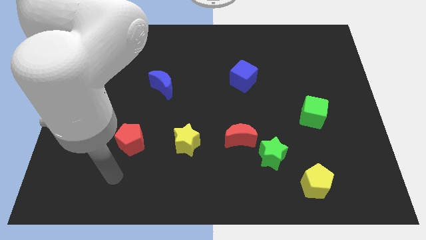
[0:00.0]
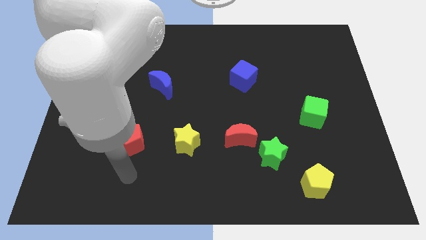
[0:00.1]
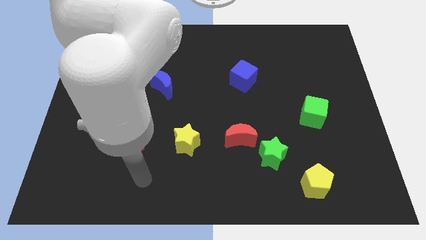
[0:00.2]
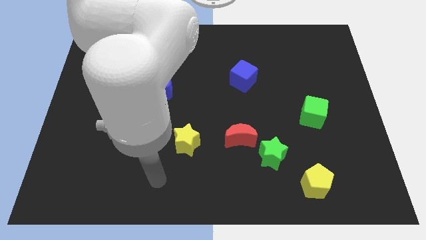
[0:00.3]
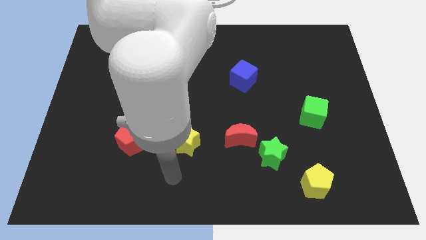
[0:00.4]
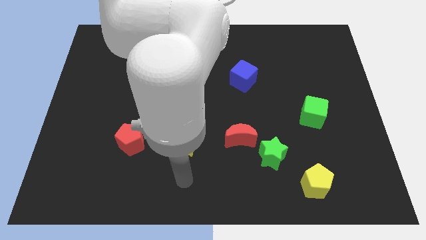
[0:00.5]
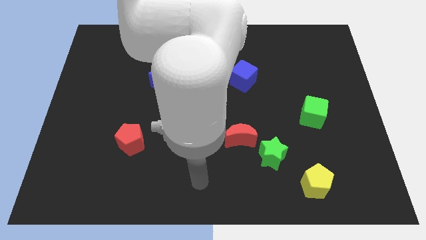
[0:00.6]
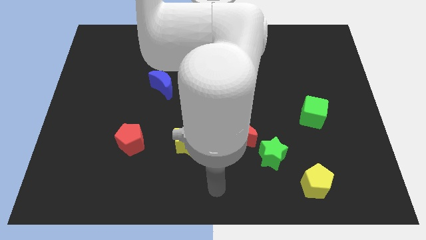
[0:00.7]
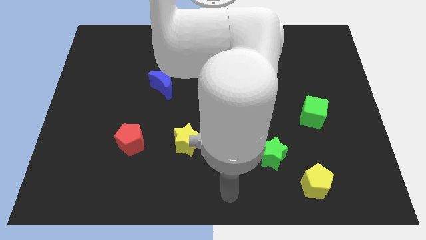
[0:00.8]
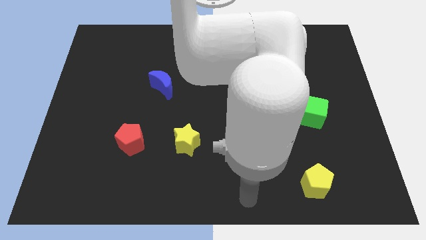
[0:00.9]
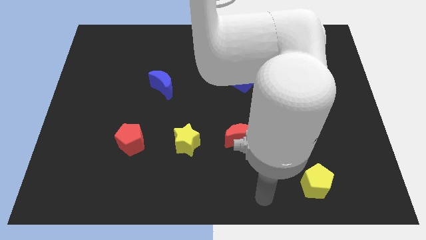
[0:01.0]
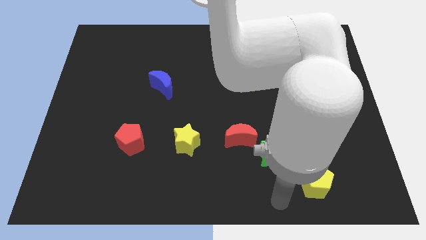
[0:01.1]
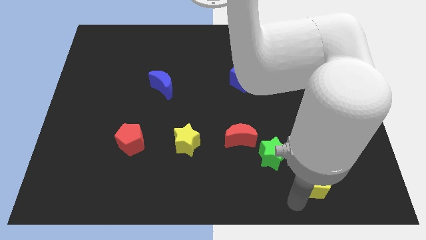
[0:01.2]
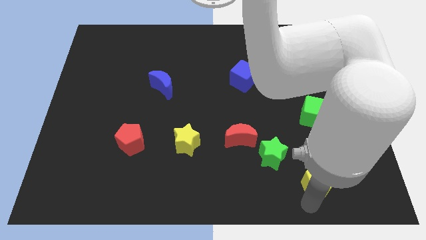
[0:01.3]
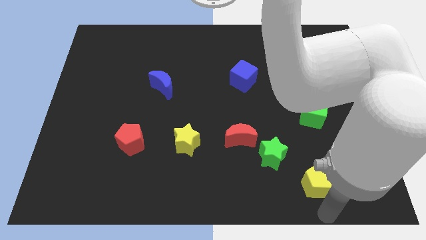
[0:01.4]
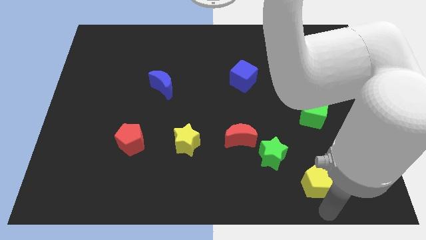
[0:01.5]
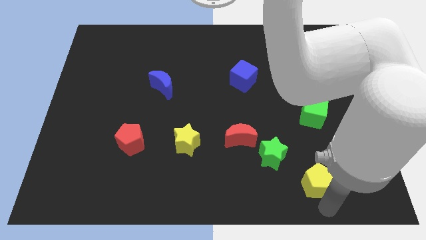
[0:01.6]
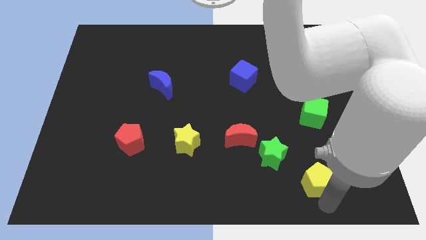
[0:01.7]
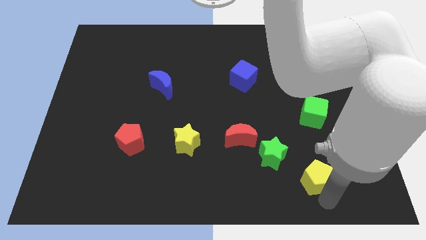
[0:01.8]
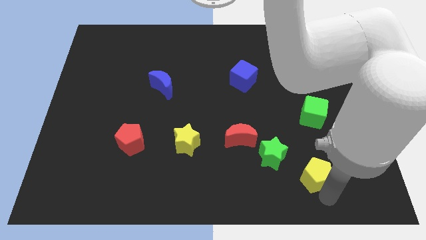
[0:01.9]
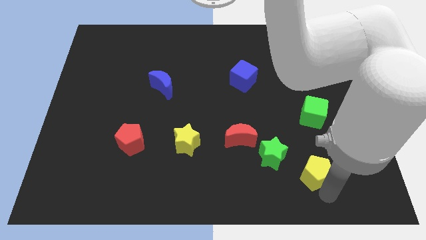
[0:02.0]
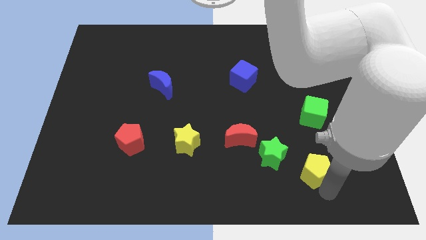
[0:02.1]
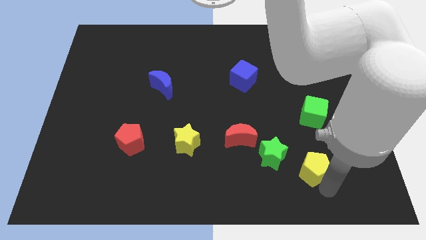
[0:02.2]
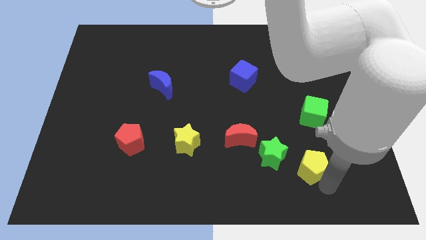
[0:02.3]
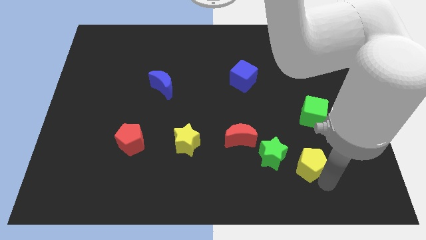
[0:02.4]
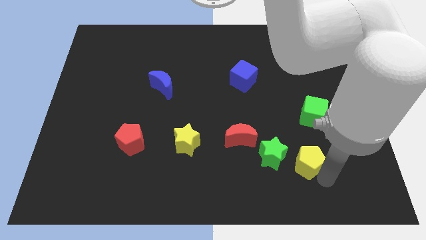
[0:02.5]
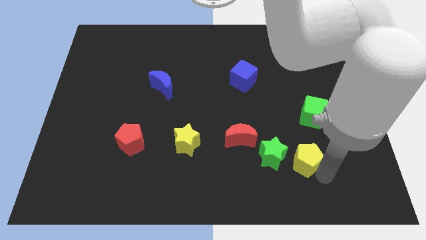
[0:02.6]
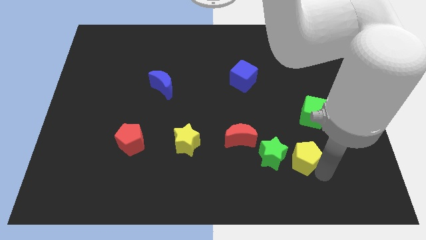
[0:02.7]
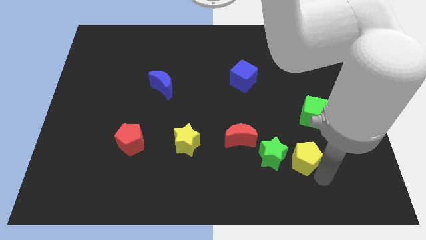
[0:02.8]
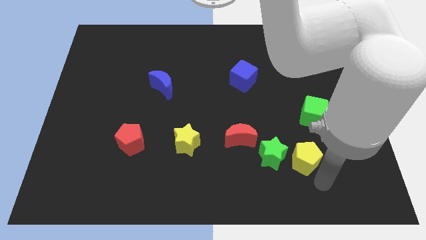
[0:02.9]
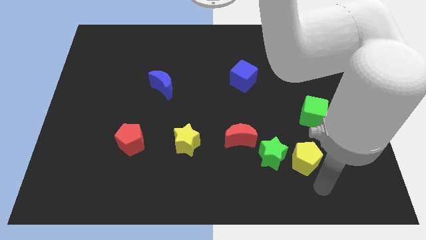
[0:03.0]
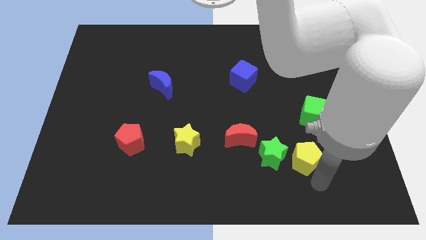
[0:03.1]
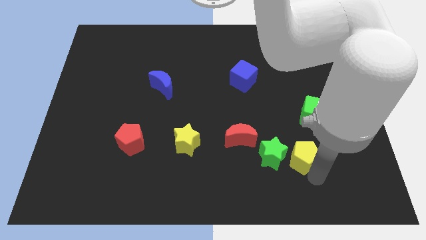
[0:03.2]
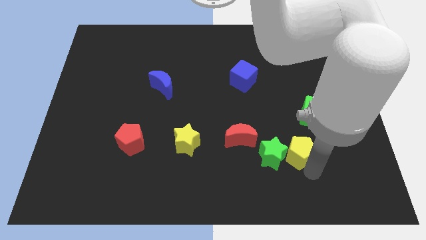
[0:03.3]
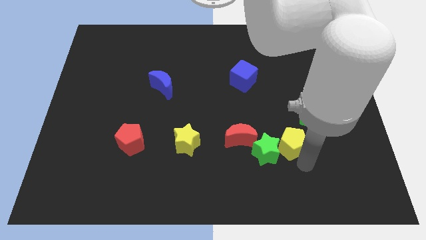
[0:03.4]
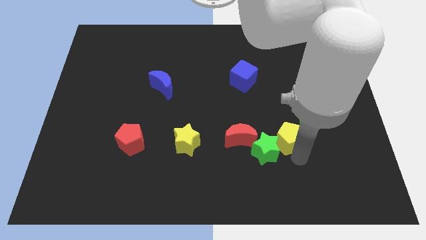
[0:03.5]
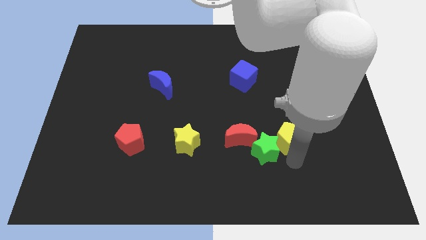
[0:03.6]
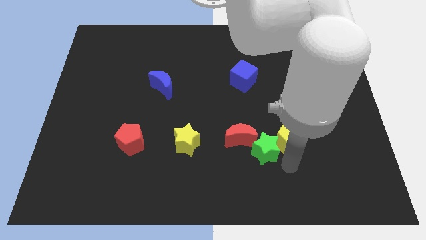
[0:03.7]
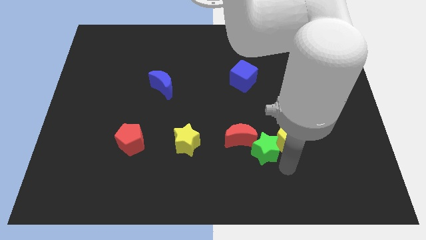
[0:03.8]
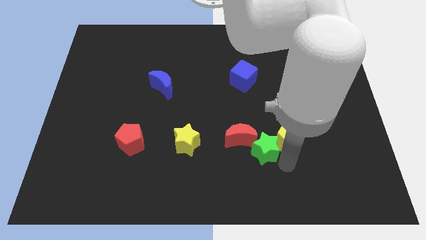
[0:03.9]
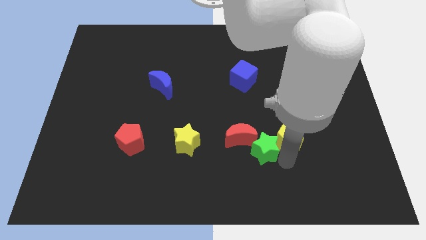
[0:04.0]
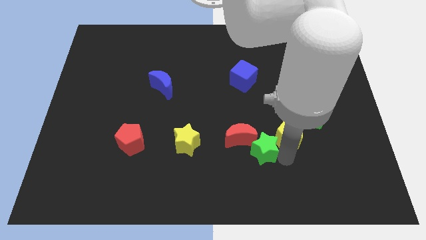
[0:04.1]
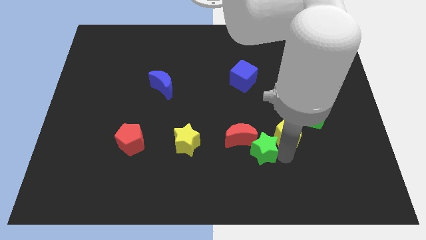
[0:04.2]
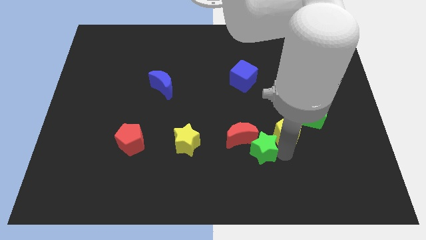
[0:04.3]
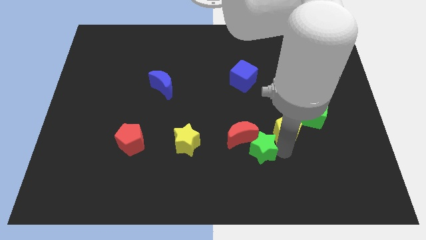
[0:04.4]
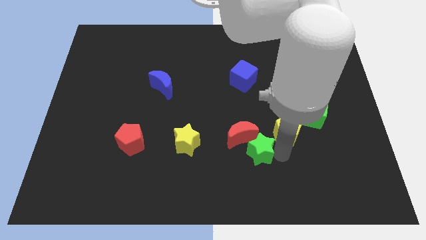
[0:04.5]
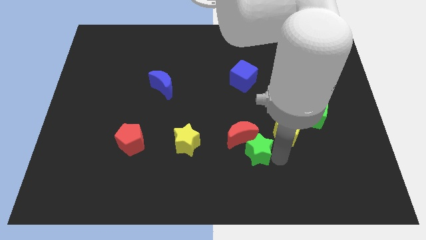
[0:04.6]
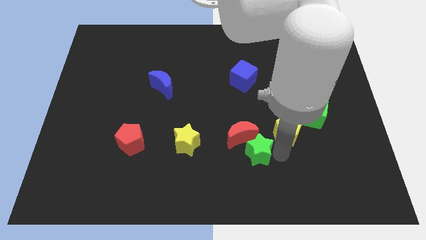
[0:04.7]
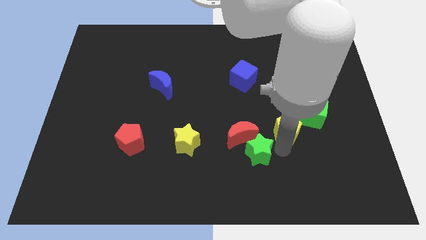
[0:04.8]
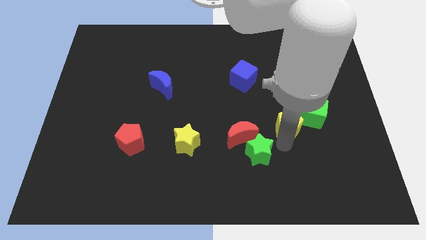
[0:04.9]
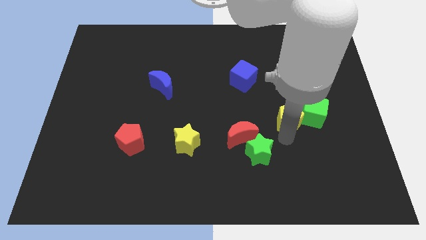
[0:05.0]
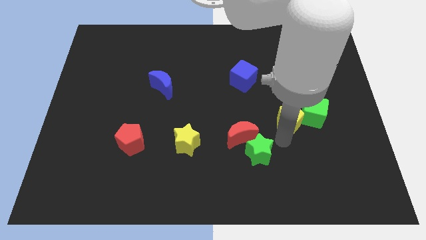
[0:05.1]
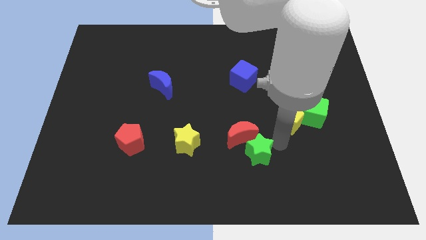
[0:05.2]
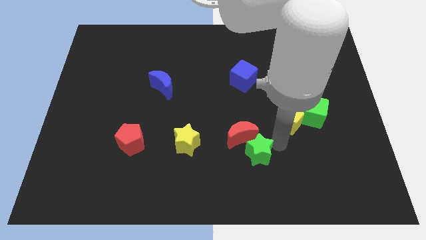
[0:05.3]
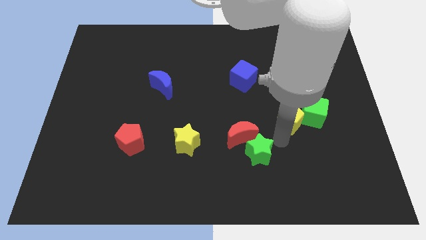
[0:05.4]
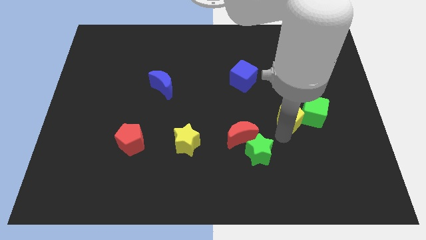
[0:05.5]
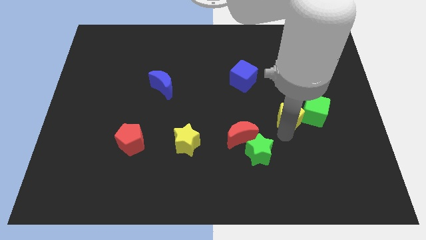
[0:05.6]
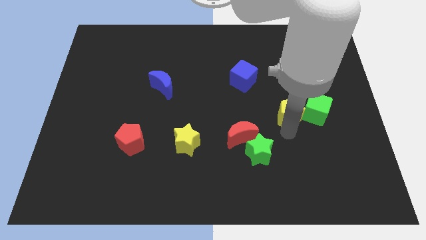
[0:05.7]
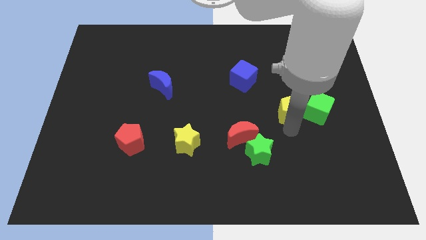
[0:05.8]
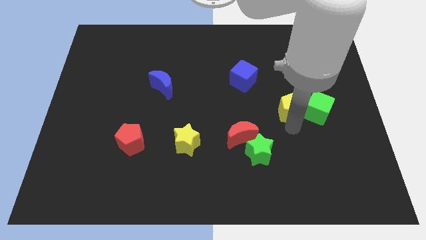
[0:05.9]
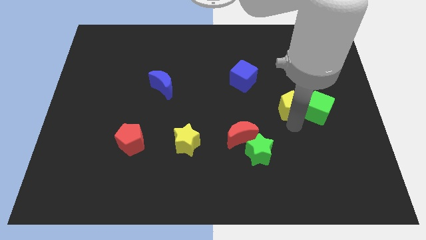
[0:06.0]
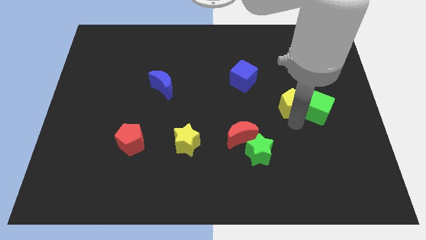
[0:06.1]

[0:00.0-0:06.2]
slide the yellow pentagon upwards

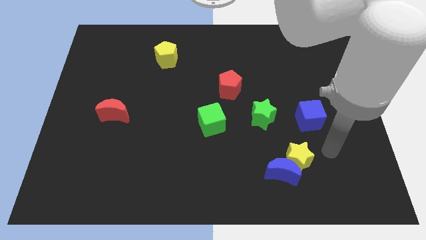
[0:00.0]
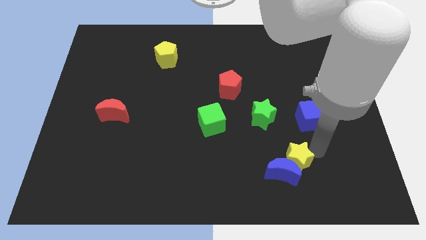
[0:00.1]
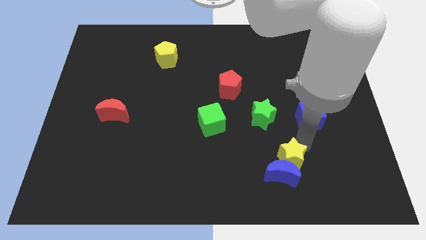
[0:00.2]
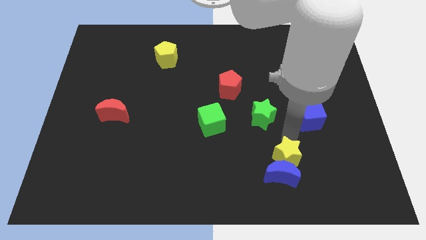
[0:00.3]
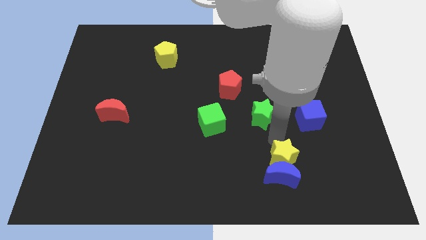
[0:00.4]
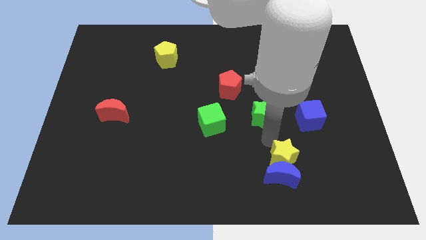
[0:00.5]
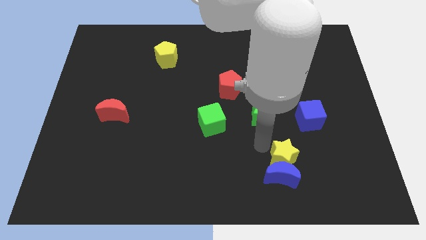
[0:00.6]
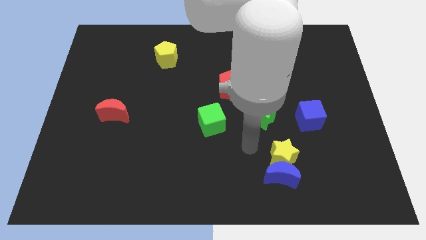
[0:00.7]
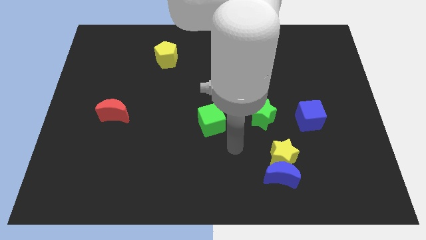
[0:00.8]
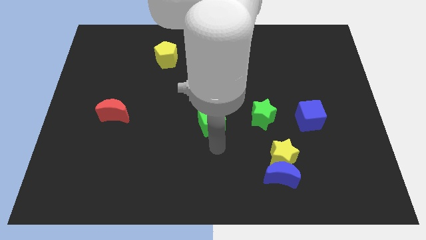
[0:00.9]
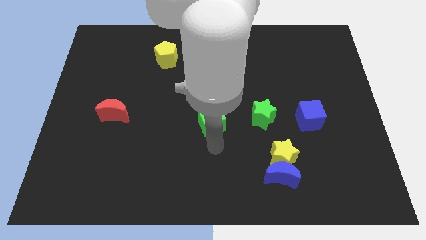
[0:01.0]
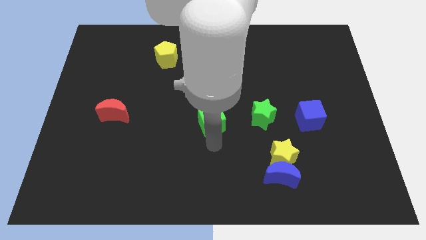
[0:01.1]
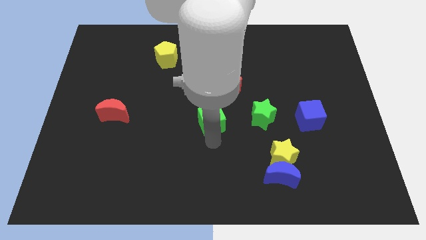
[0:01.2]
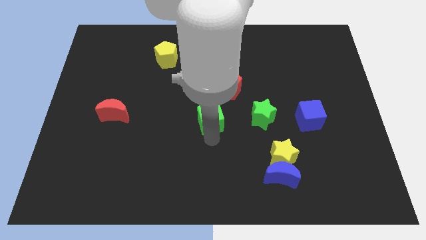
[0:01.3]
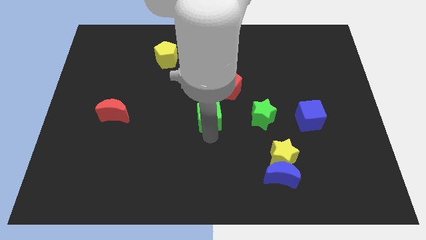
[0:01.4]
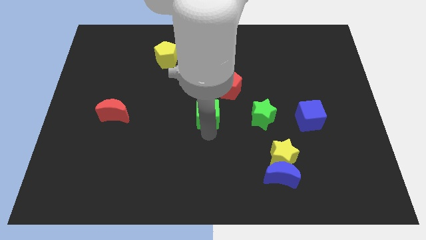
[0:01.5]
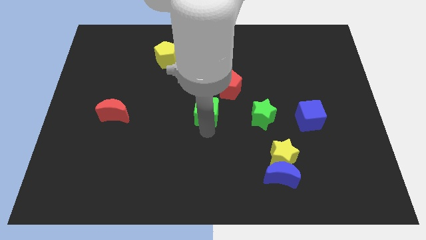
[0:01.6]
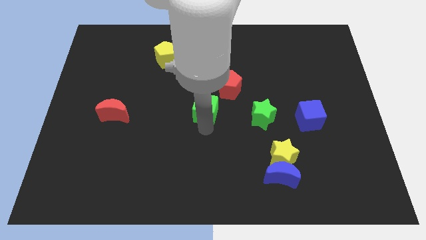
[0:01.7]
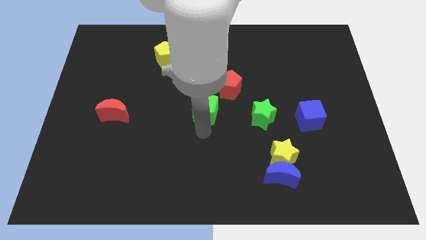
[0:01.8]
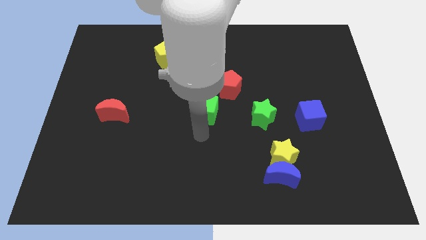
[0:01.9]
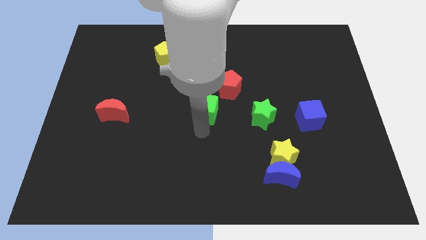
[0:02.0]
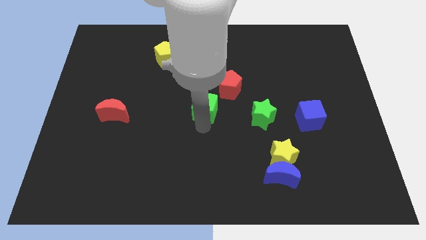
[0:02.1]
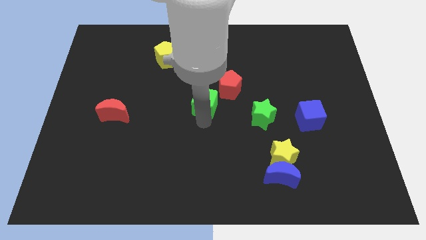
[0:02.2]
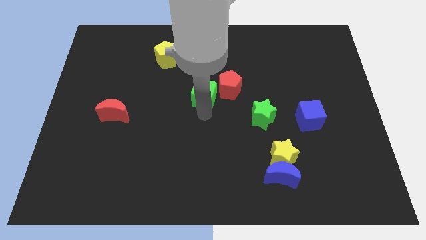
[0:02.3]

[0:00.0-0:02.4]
push the green cube slightly up
